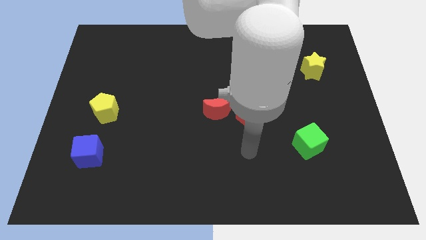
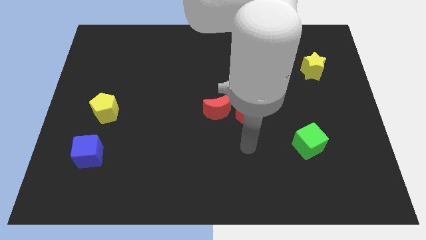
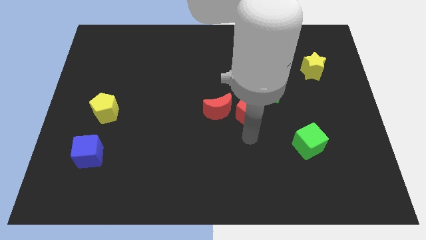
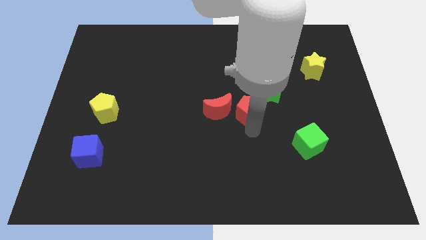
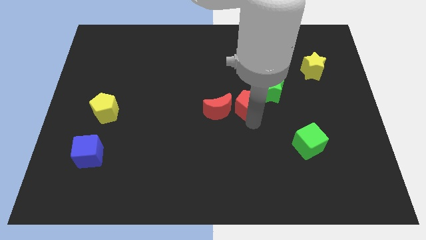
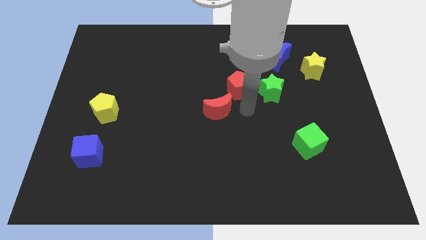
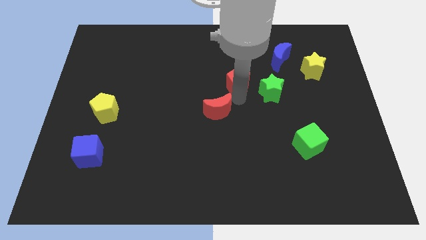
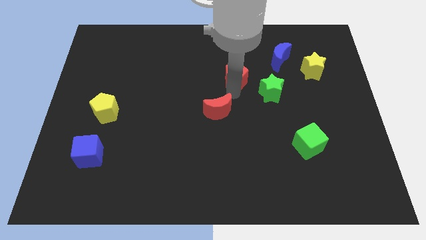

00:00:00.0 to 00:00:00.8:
separate the red moon from the red pentagon

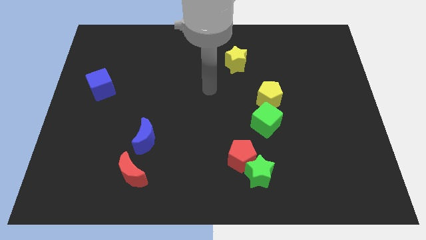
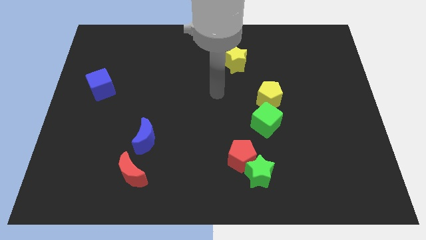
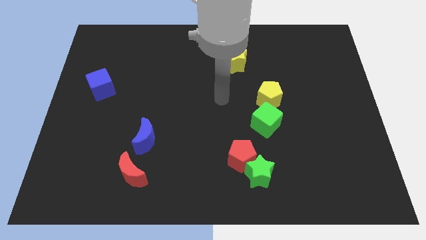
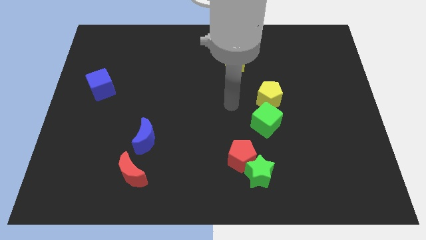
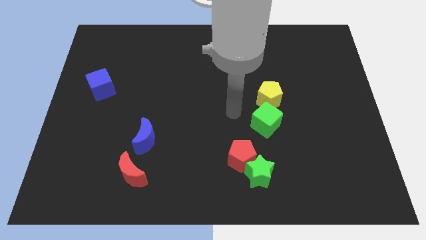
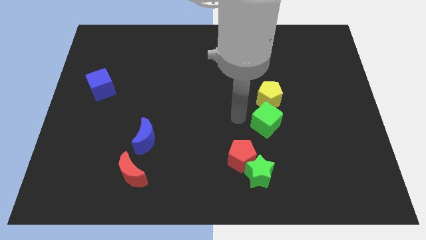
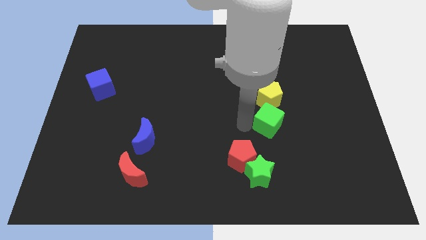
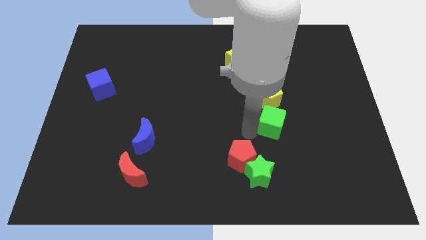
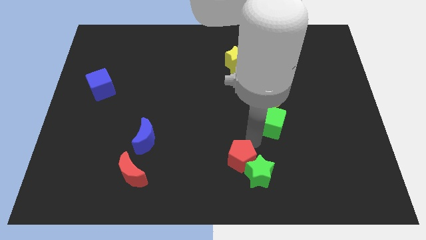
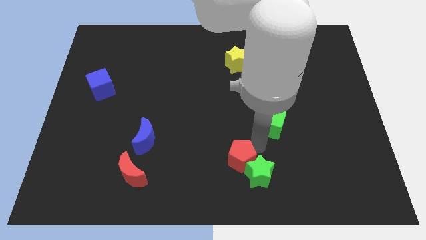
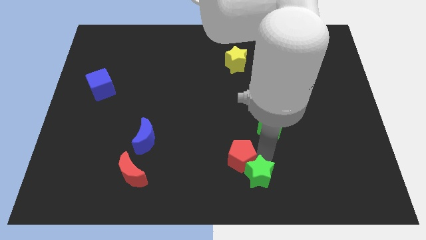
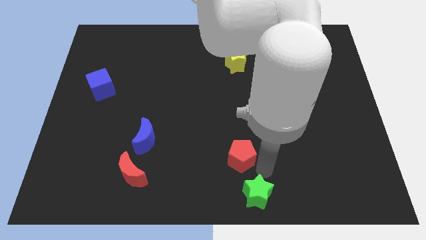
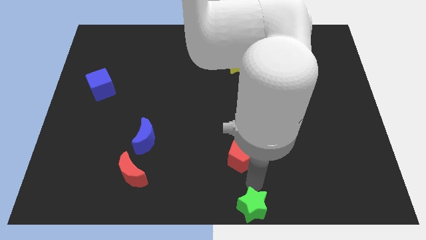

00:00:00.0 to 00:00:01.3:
separate the red pentagon from the green star

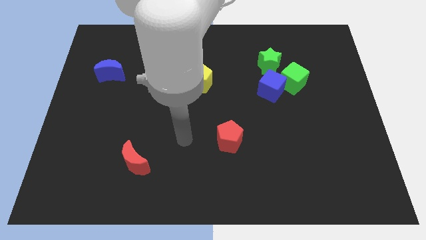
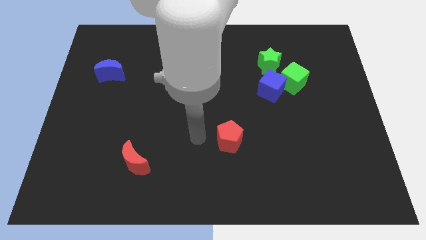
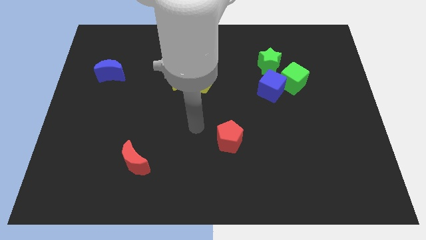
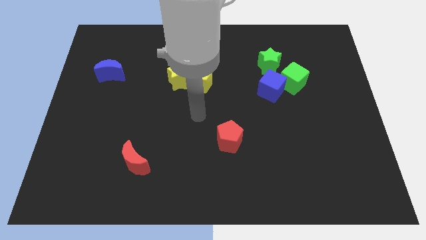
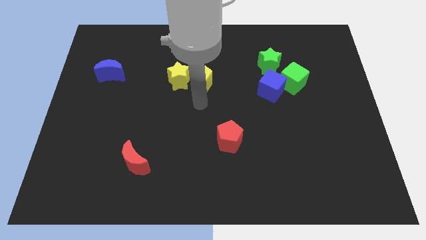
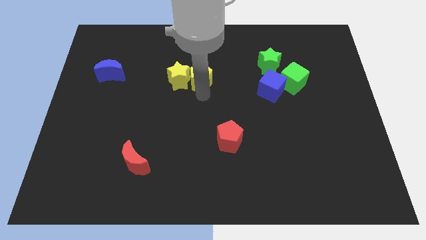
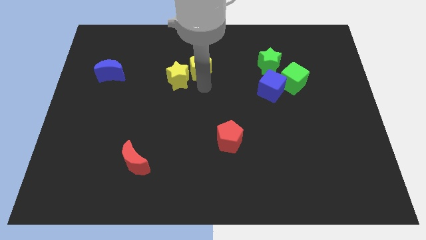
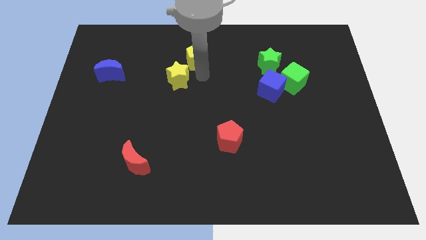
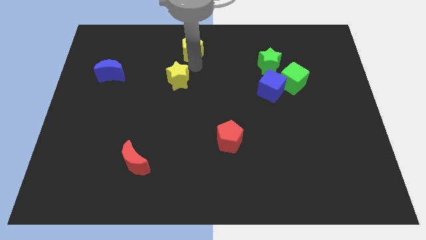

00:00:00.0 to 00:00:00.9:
move the yellow star away from the yellow pentagon

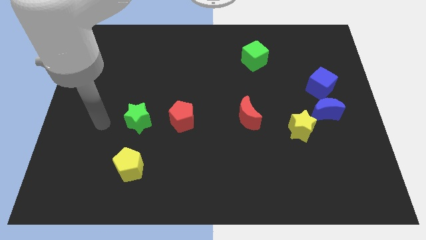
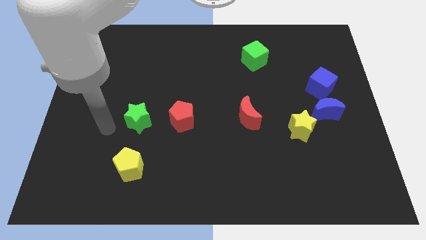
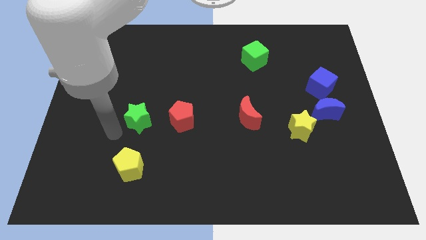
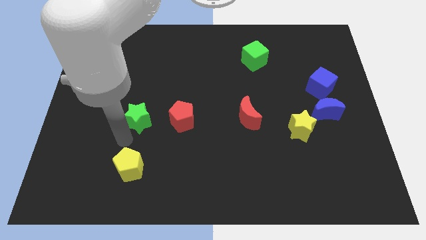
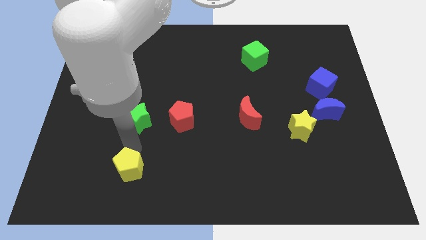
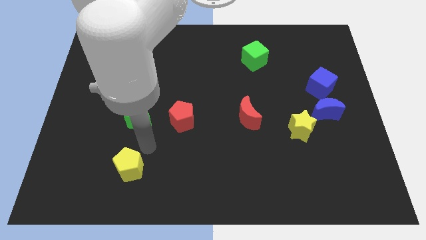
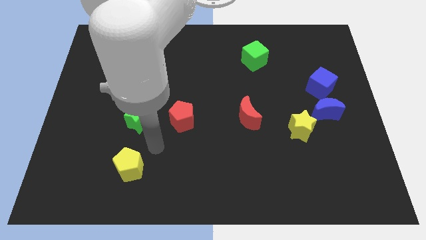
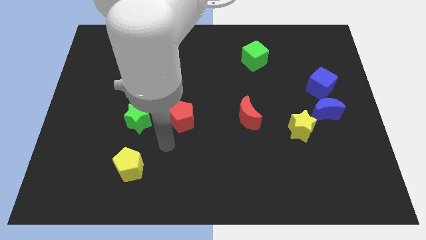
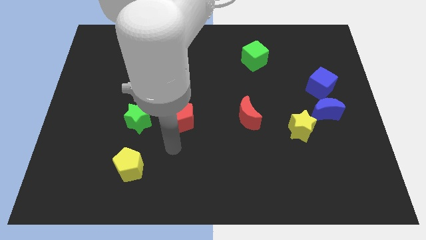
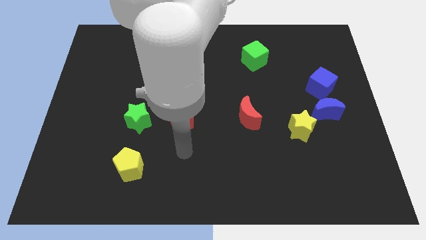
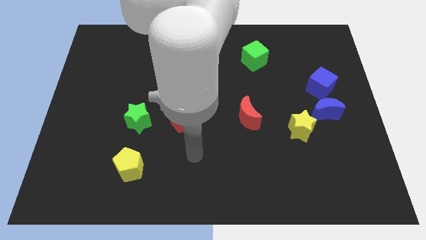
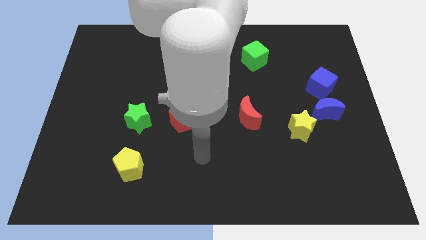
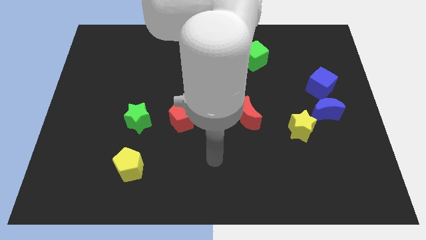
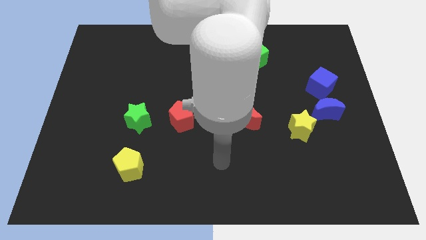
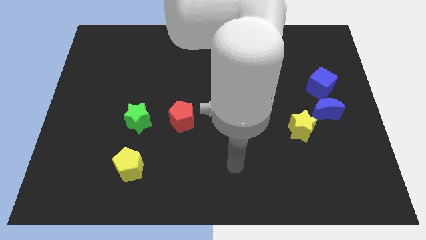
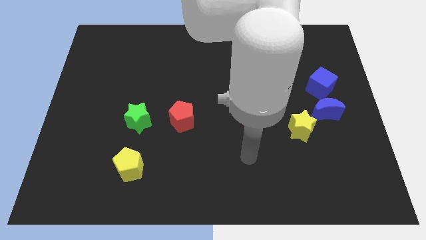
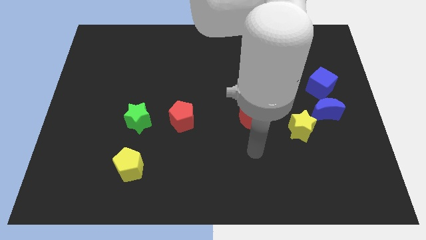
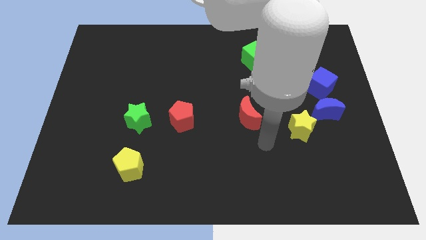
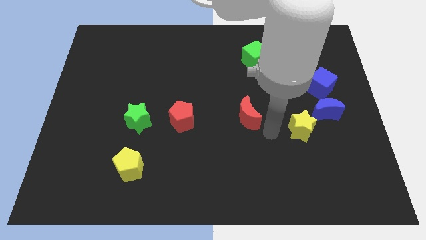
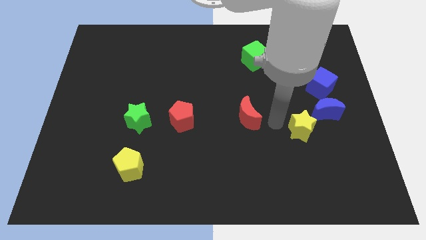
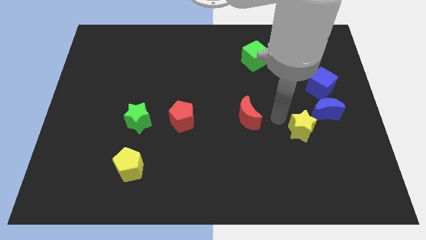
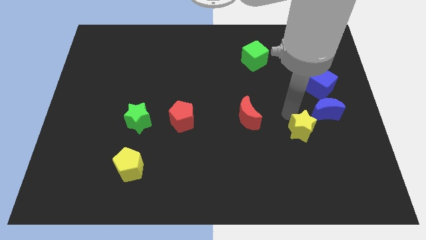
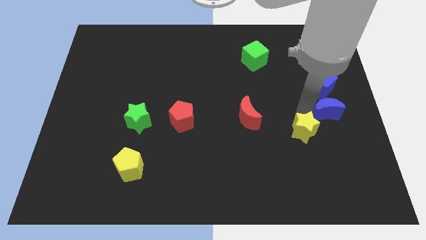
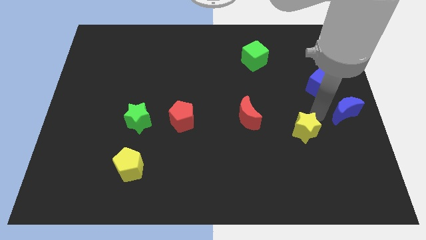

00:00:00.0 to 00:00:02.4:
separate the yellow star from the blue moon

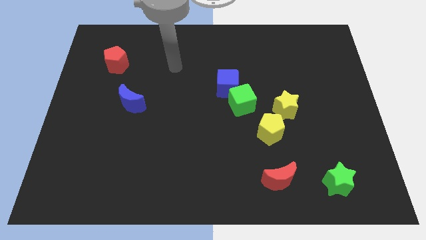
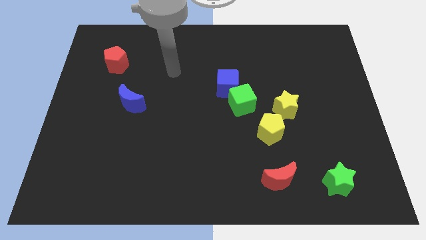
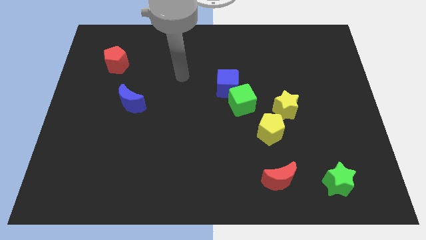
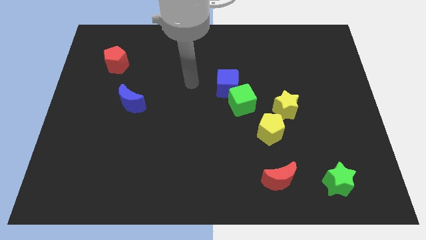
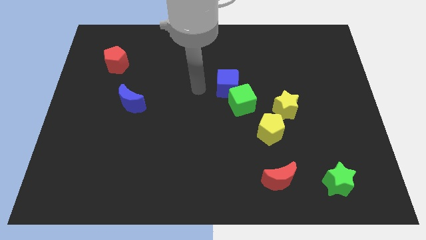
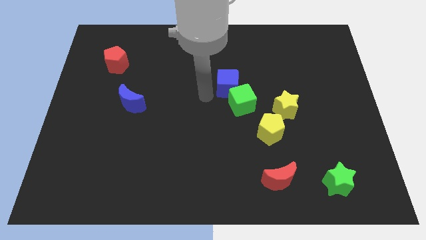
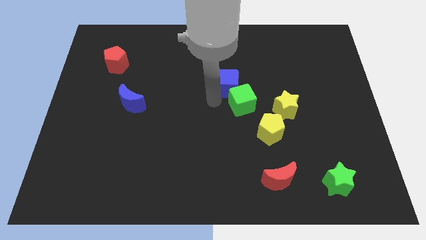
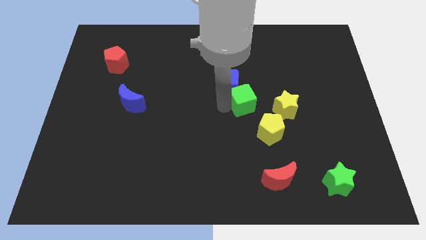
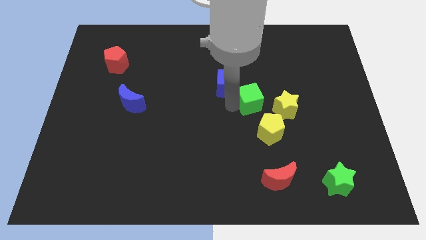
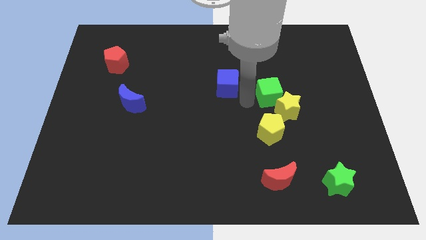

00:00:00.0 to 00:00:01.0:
pull the blue cube apart from the green cube

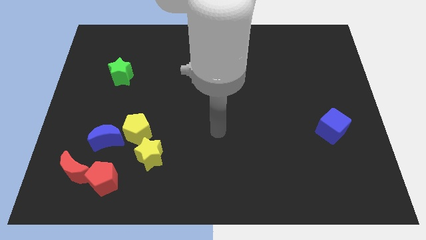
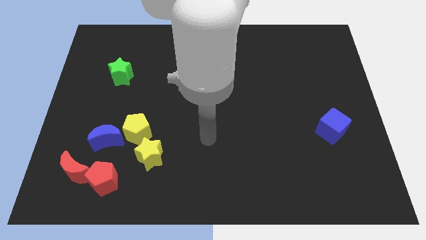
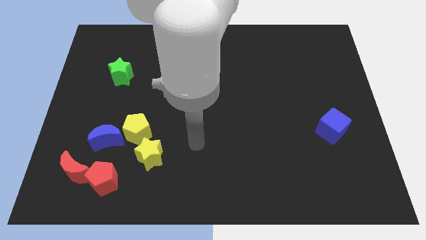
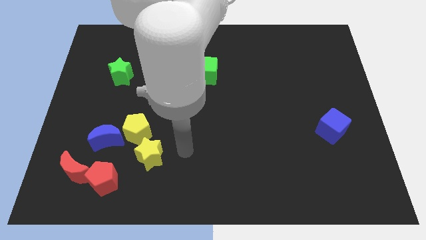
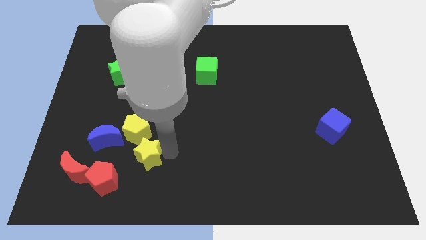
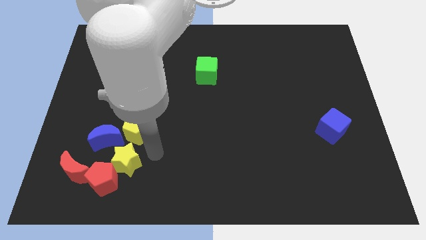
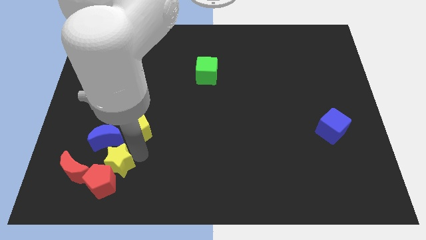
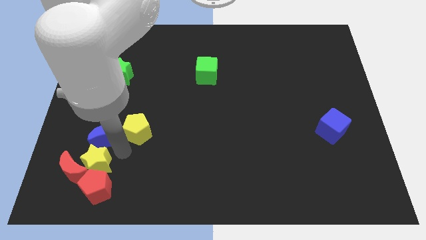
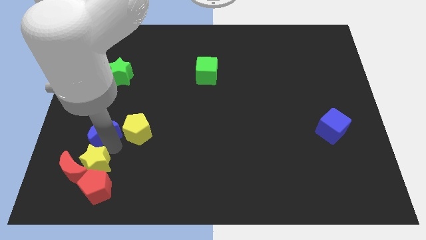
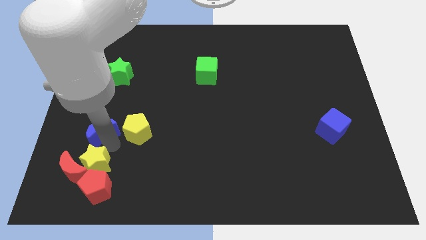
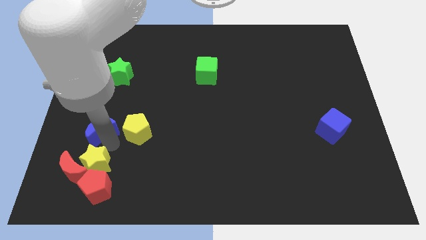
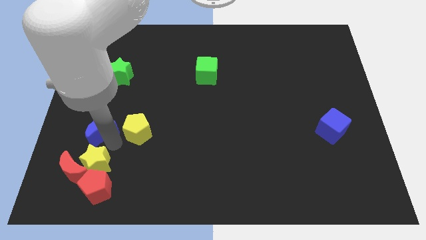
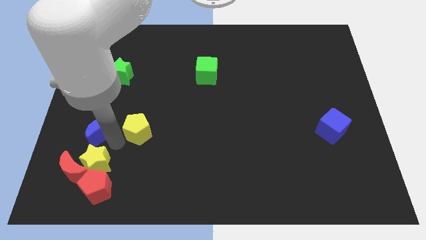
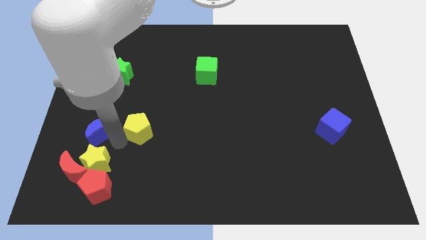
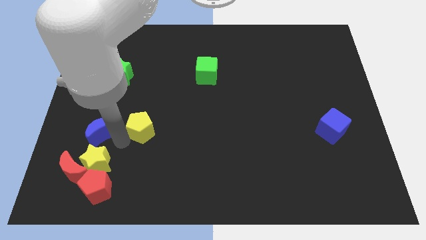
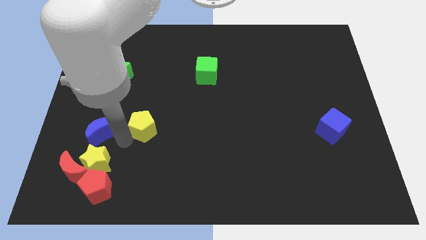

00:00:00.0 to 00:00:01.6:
separate the yellow pentagon from the blue moon and yellow star

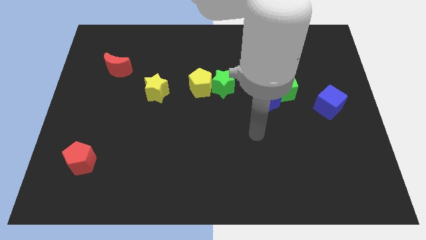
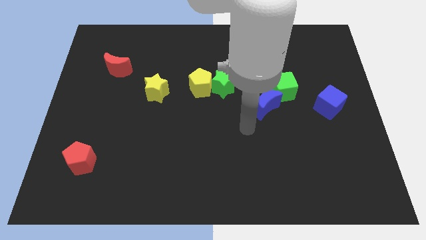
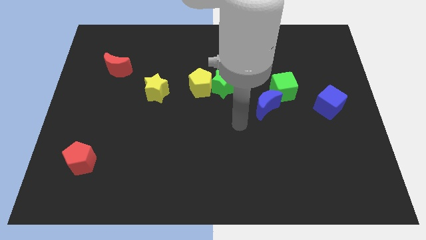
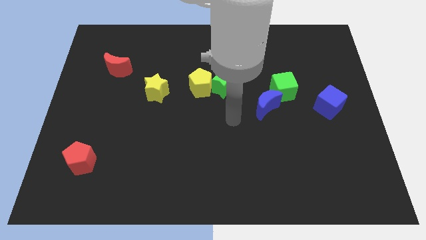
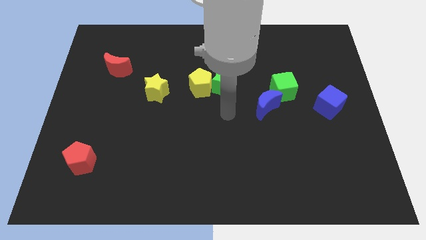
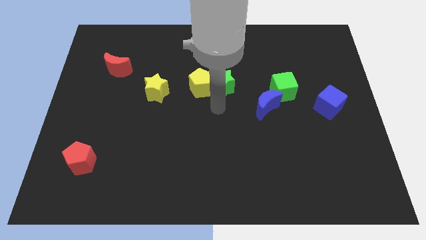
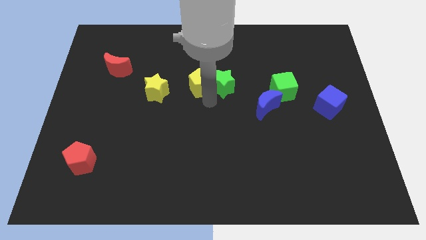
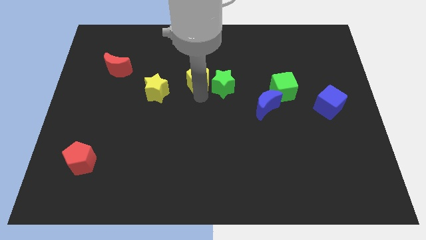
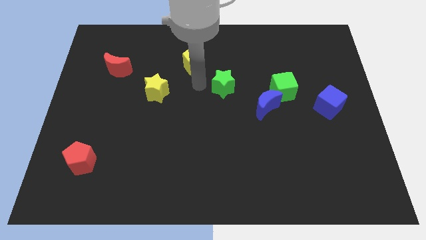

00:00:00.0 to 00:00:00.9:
separate the green star from the yellow pentagon

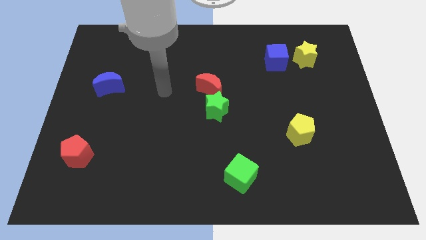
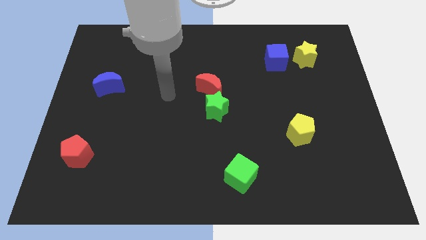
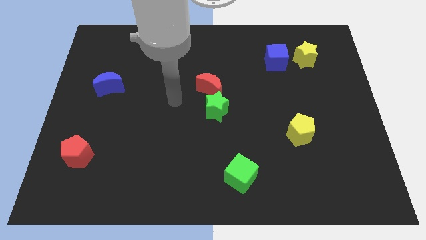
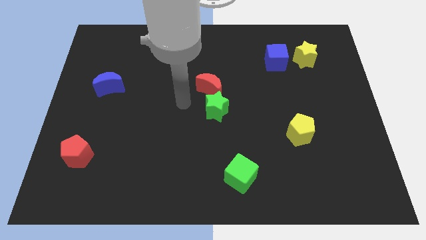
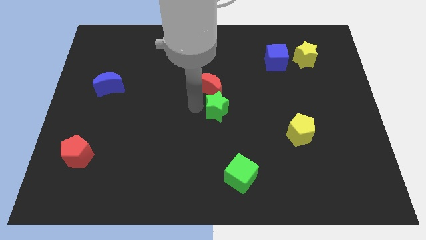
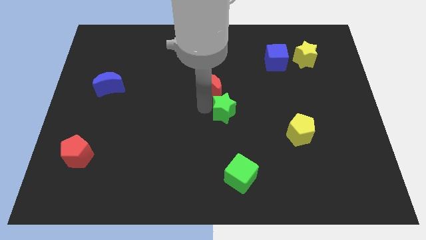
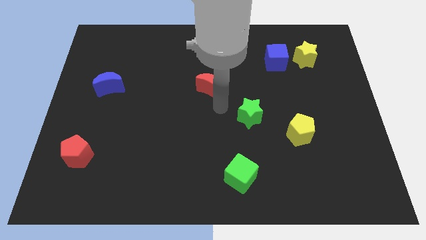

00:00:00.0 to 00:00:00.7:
separate the red moon from the green star
